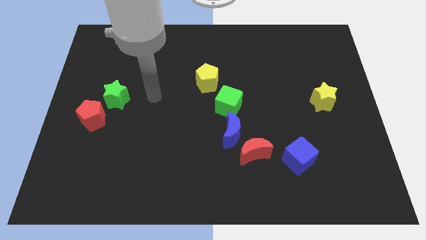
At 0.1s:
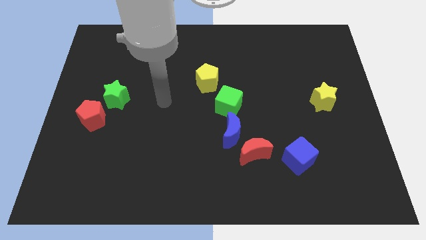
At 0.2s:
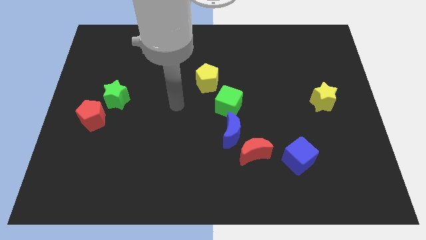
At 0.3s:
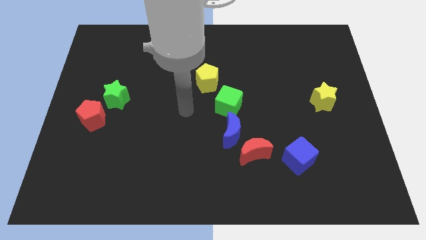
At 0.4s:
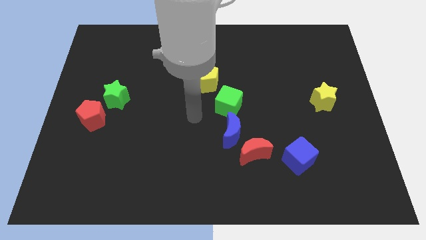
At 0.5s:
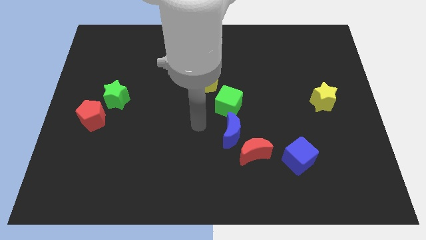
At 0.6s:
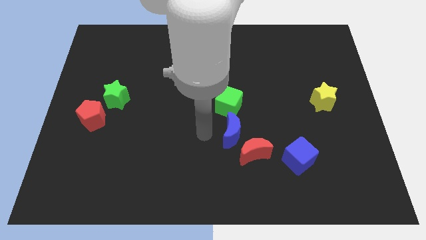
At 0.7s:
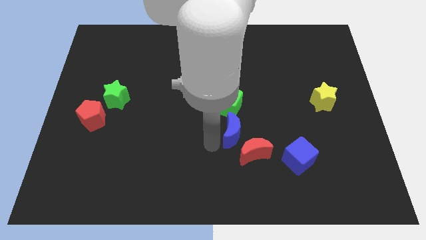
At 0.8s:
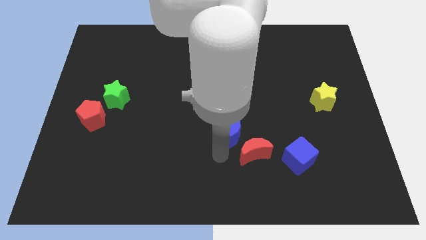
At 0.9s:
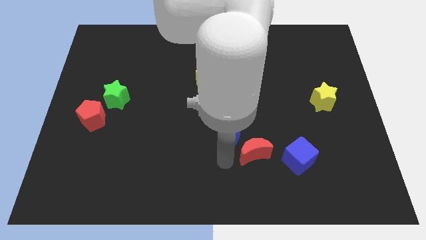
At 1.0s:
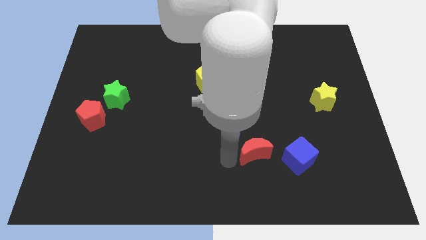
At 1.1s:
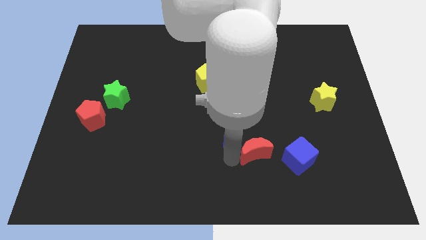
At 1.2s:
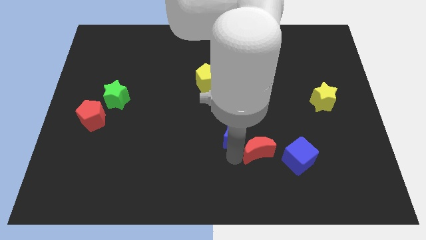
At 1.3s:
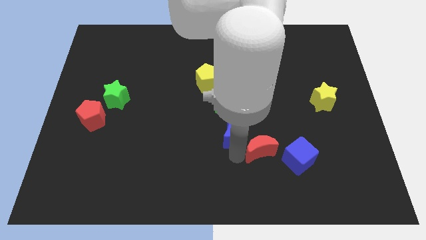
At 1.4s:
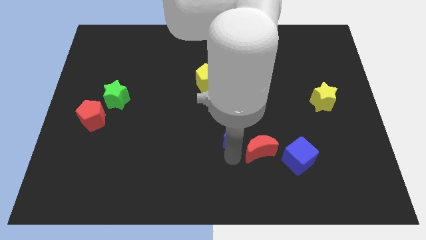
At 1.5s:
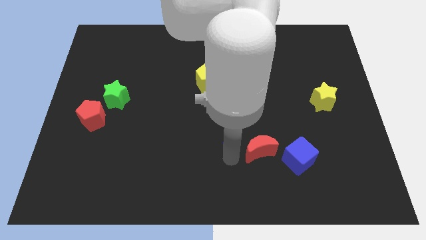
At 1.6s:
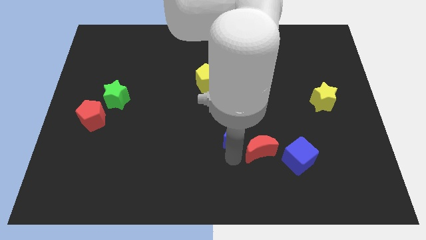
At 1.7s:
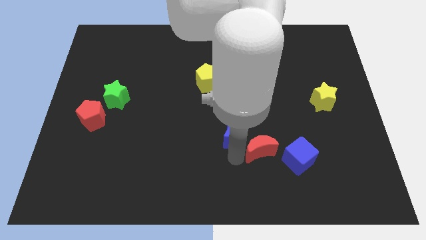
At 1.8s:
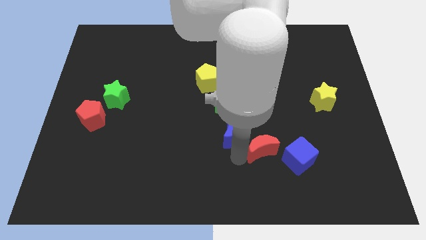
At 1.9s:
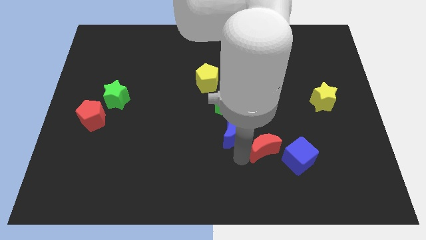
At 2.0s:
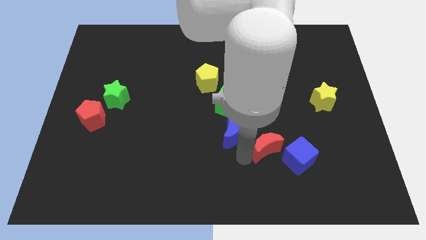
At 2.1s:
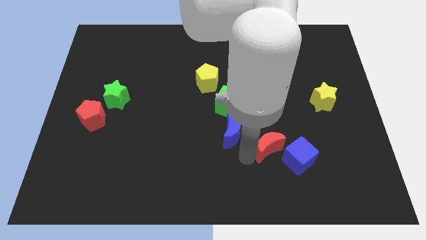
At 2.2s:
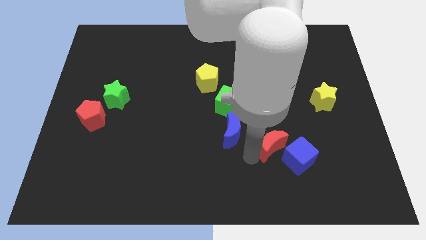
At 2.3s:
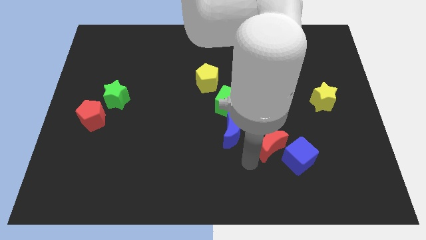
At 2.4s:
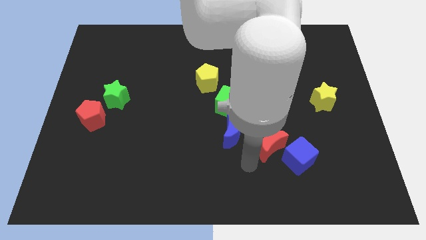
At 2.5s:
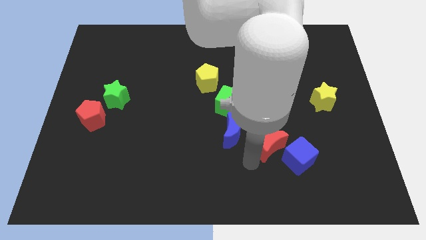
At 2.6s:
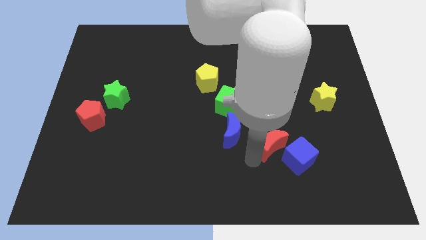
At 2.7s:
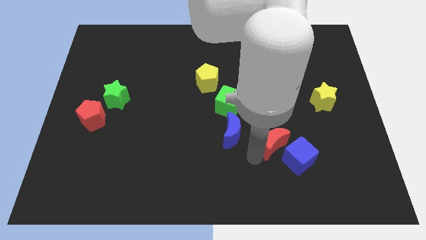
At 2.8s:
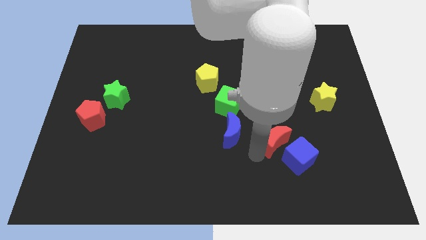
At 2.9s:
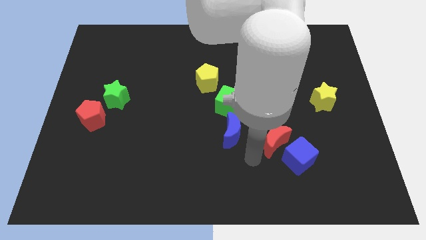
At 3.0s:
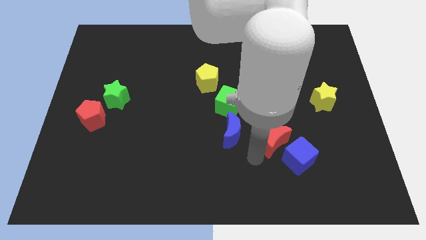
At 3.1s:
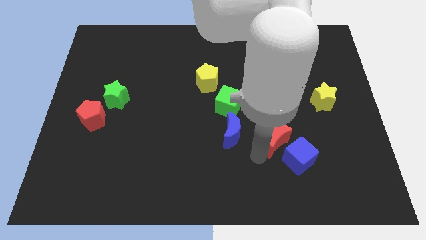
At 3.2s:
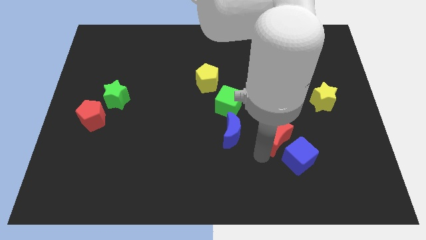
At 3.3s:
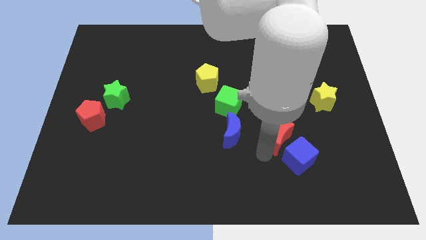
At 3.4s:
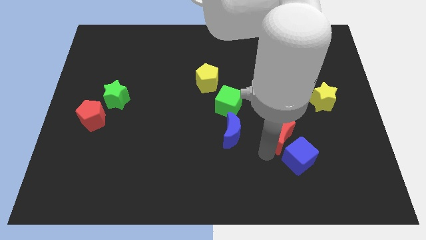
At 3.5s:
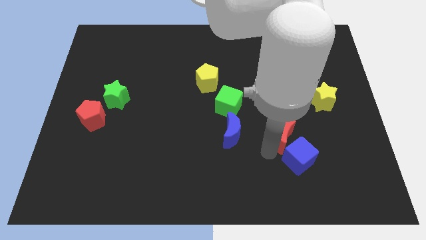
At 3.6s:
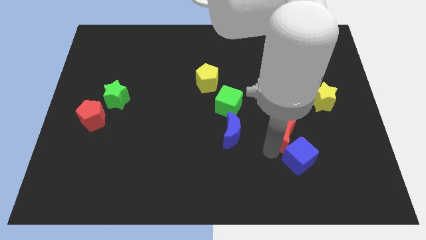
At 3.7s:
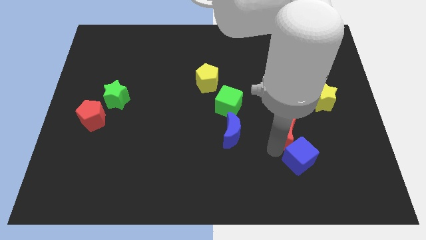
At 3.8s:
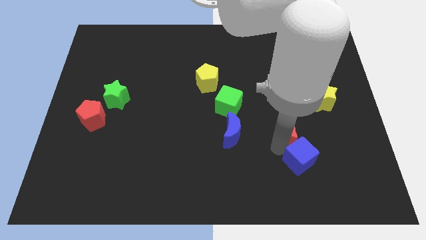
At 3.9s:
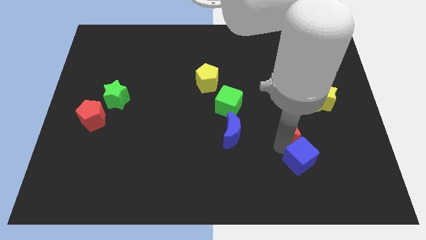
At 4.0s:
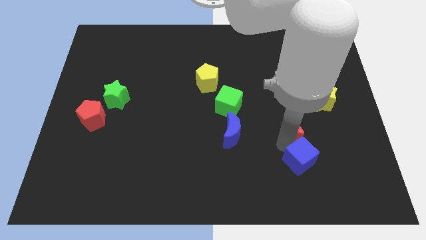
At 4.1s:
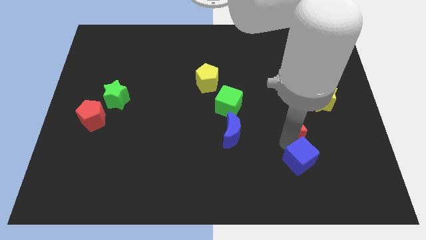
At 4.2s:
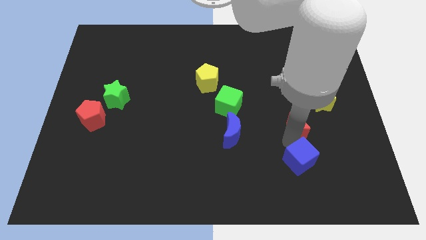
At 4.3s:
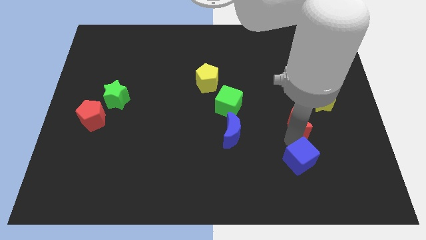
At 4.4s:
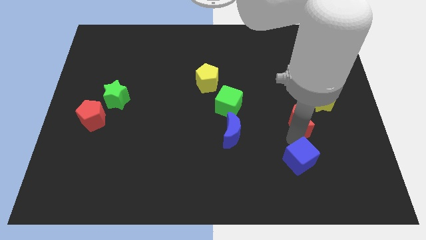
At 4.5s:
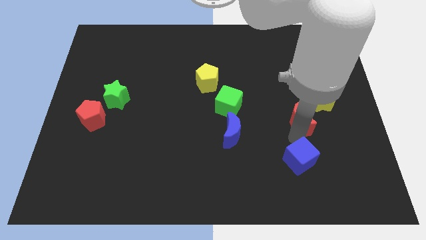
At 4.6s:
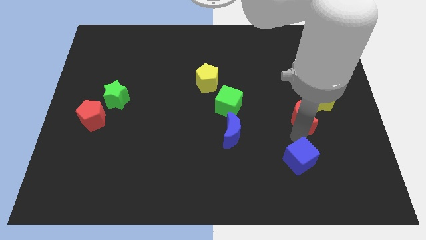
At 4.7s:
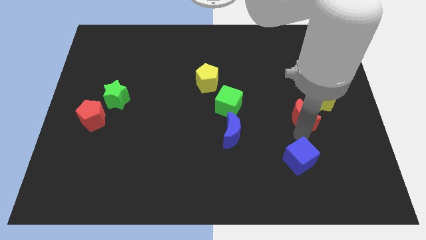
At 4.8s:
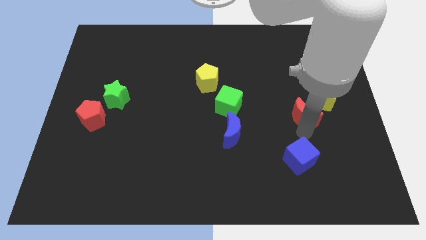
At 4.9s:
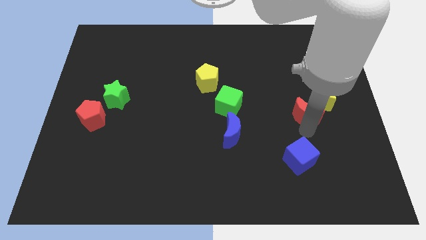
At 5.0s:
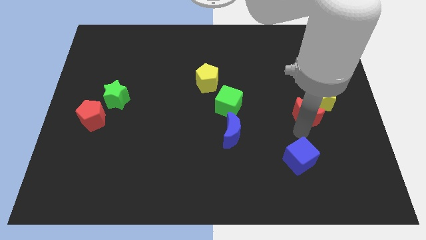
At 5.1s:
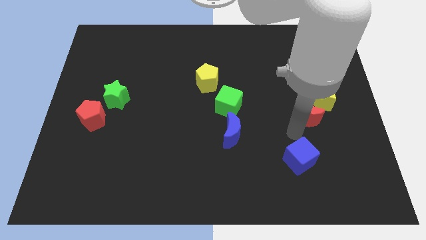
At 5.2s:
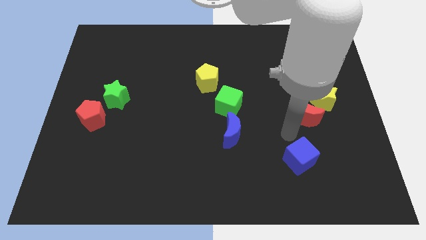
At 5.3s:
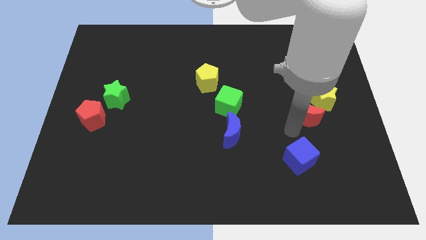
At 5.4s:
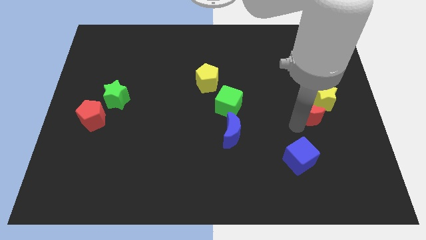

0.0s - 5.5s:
move the red moon towards the yellow star

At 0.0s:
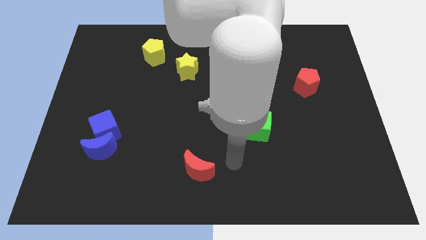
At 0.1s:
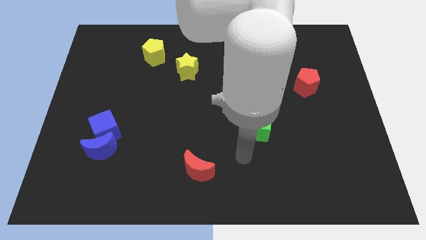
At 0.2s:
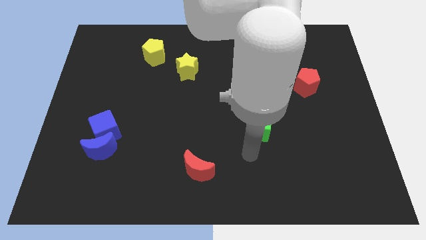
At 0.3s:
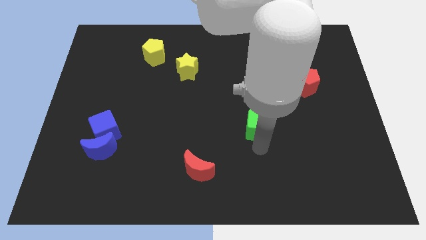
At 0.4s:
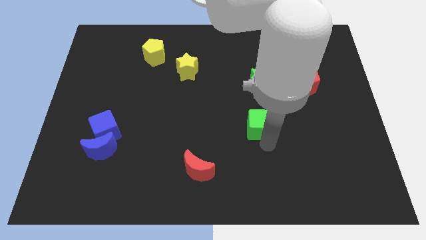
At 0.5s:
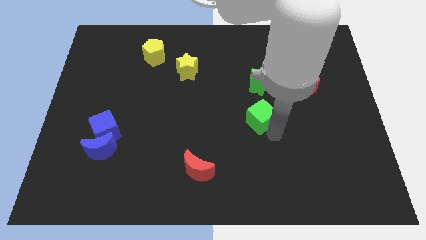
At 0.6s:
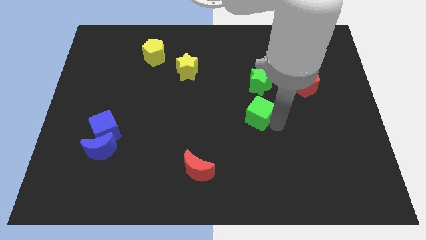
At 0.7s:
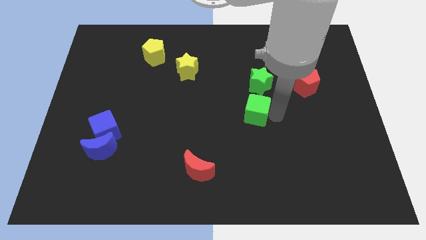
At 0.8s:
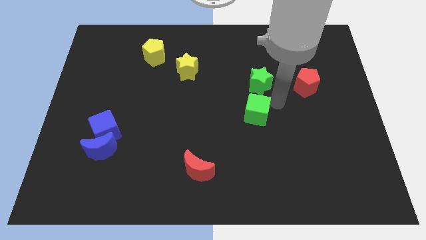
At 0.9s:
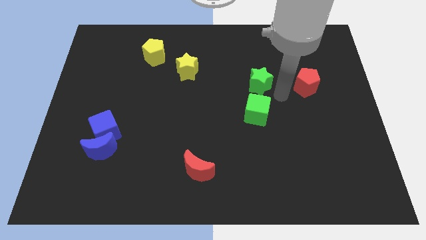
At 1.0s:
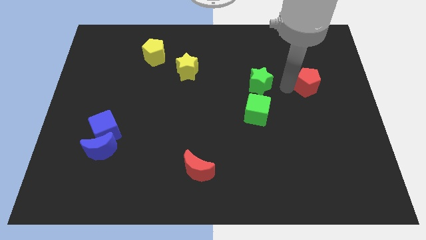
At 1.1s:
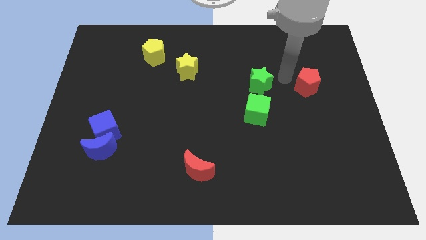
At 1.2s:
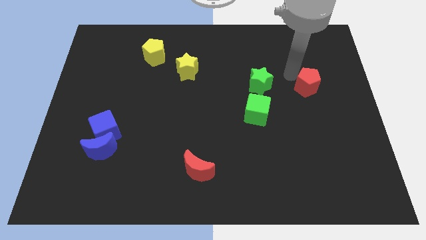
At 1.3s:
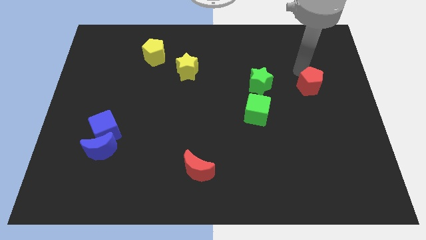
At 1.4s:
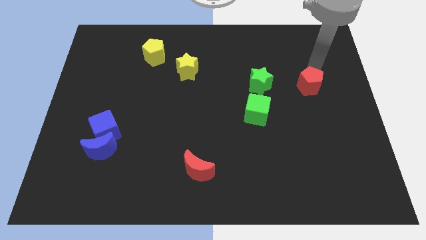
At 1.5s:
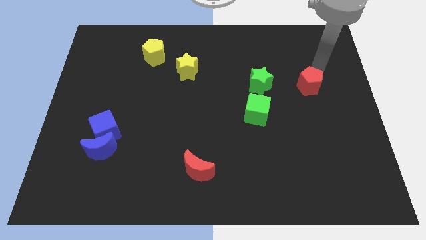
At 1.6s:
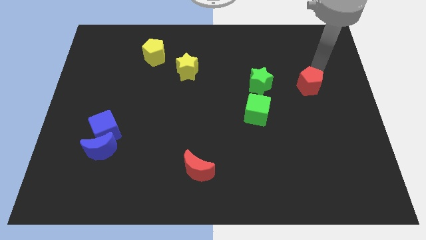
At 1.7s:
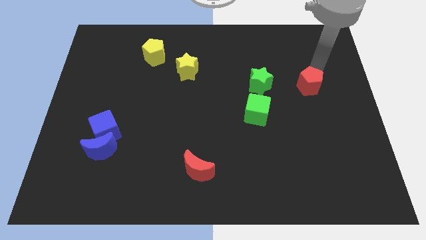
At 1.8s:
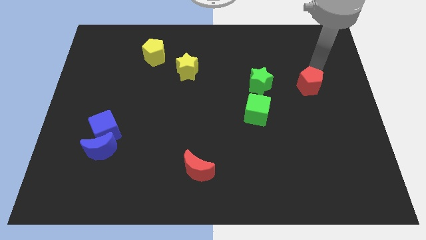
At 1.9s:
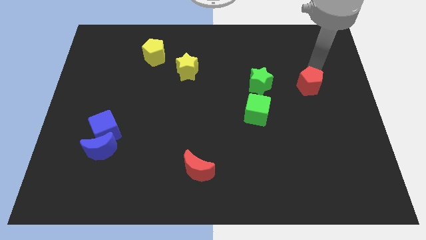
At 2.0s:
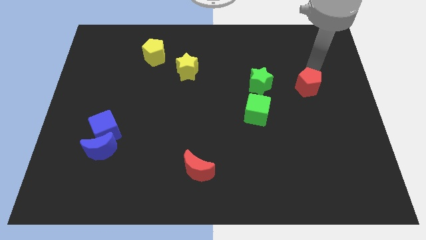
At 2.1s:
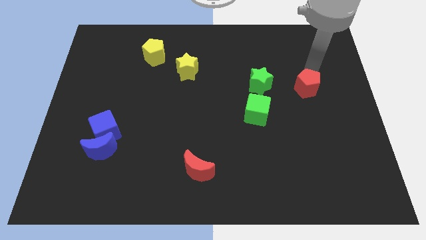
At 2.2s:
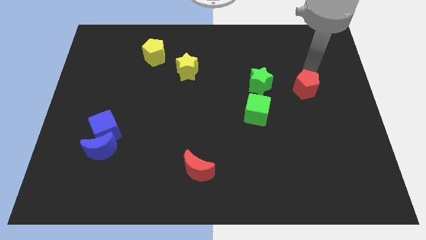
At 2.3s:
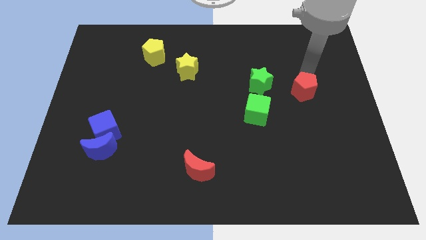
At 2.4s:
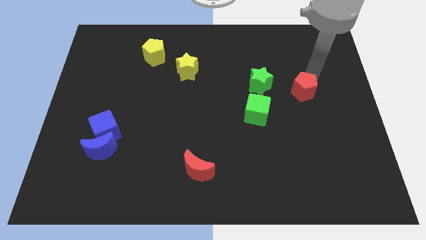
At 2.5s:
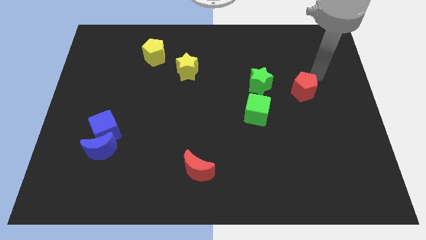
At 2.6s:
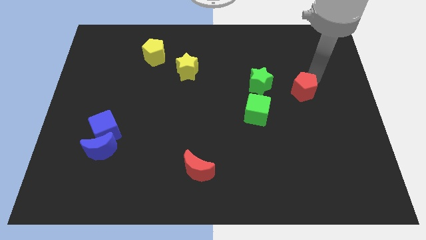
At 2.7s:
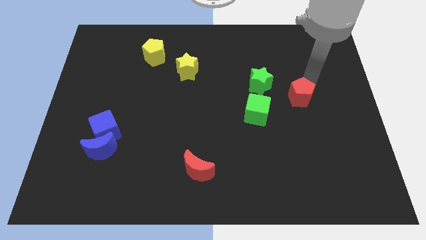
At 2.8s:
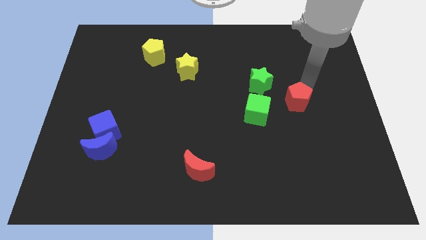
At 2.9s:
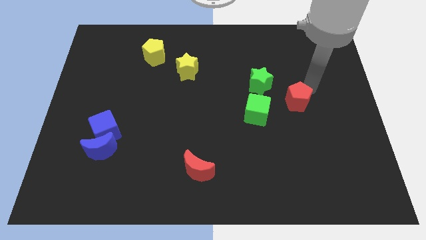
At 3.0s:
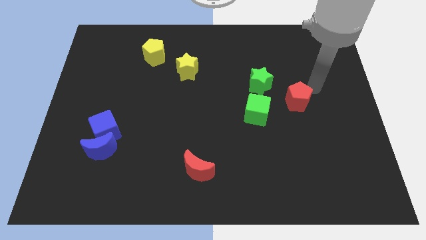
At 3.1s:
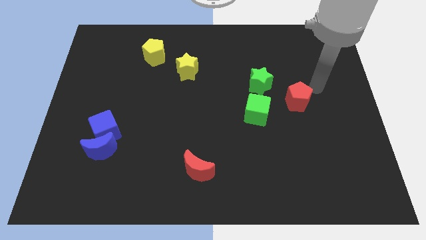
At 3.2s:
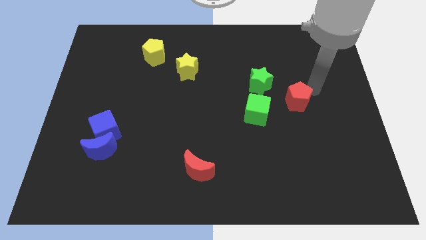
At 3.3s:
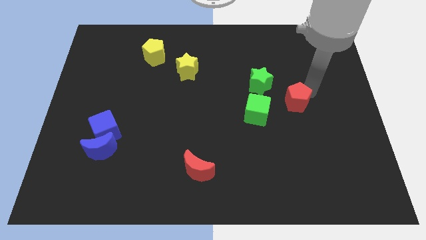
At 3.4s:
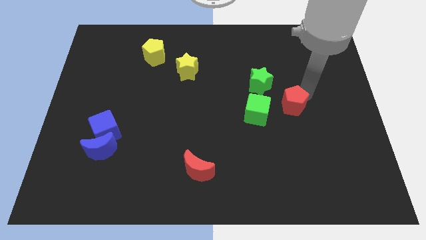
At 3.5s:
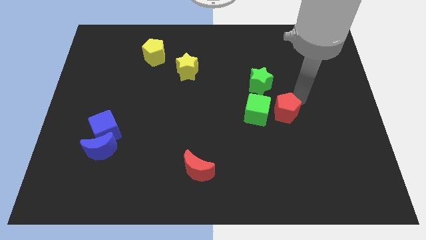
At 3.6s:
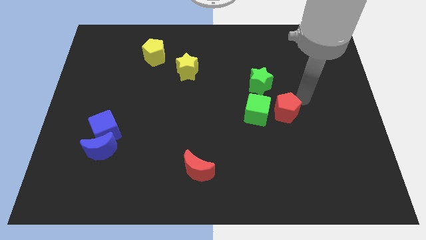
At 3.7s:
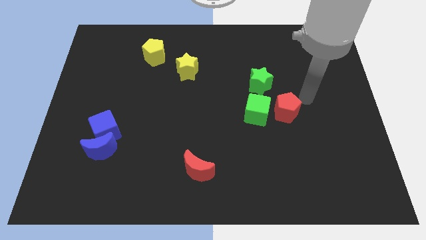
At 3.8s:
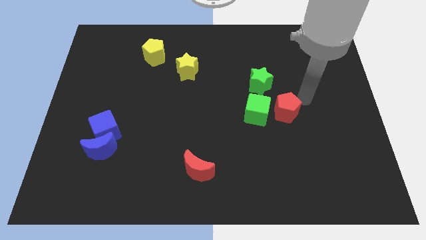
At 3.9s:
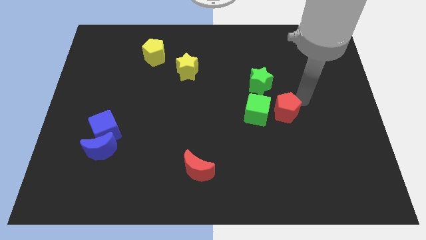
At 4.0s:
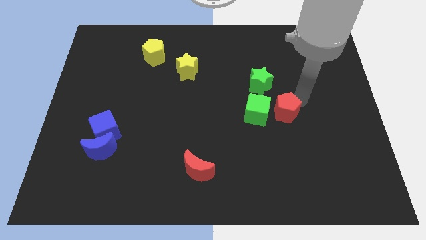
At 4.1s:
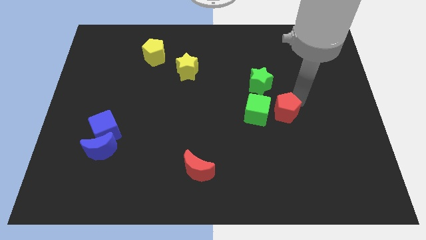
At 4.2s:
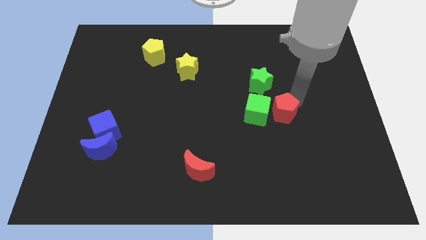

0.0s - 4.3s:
put the red pentagon towards the green cube
